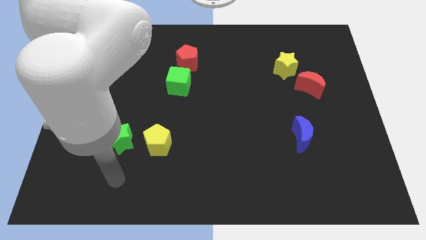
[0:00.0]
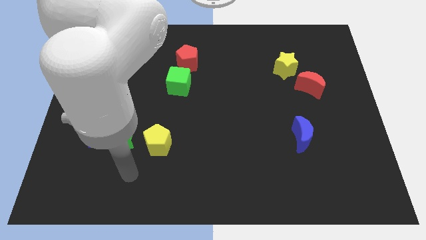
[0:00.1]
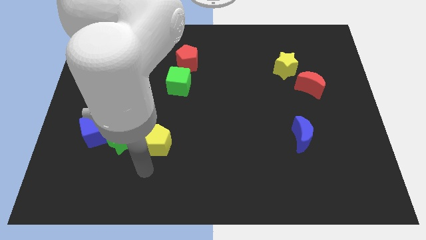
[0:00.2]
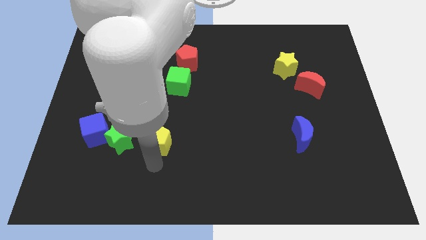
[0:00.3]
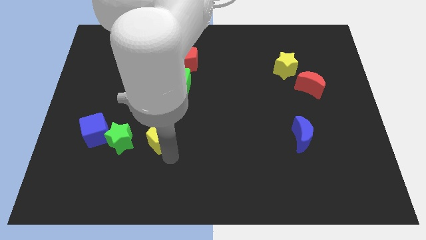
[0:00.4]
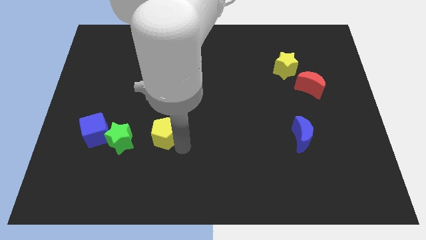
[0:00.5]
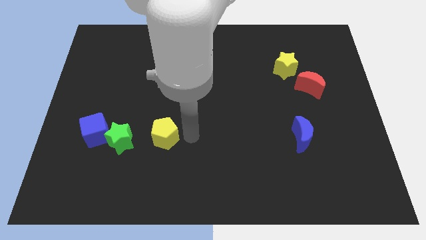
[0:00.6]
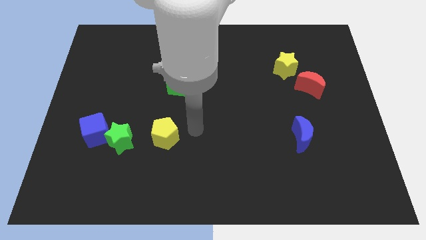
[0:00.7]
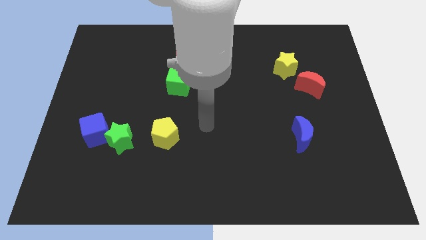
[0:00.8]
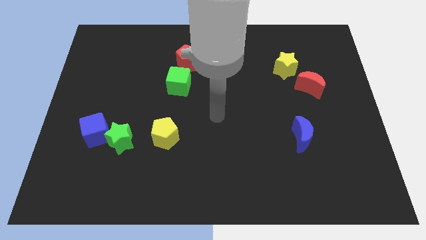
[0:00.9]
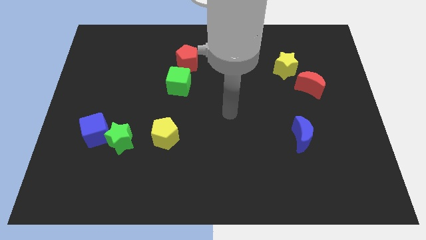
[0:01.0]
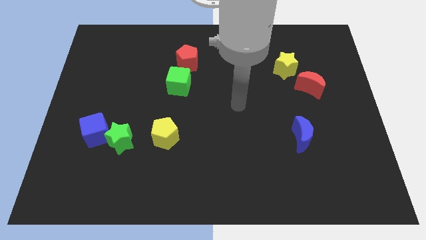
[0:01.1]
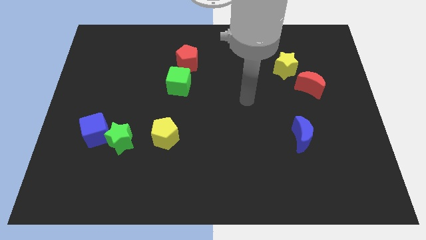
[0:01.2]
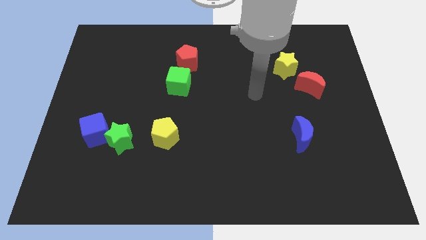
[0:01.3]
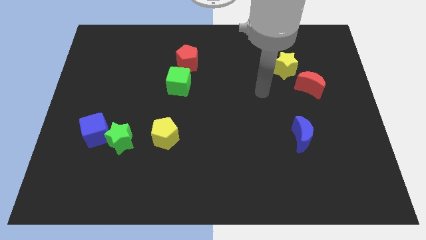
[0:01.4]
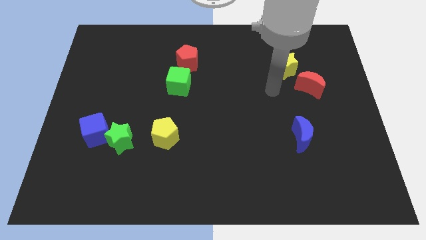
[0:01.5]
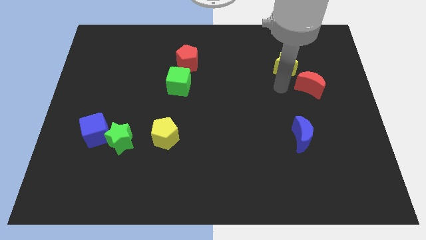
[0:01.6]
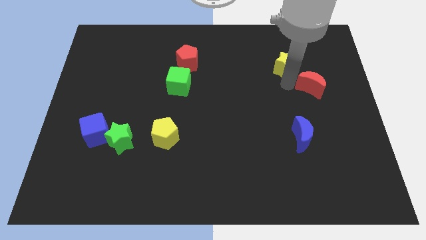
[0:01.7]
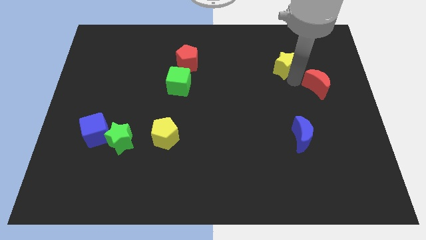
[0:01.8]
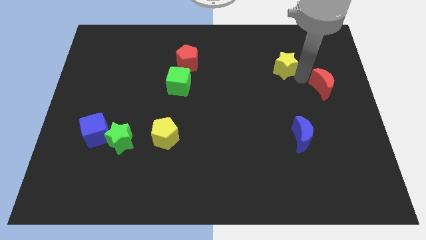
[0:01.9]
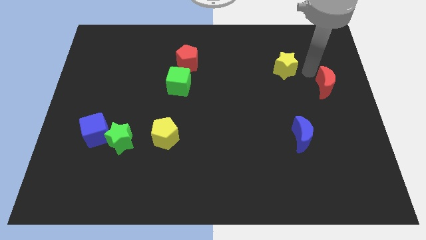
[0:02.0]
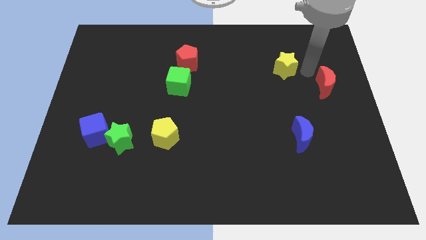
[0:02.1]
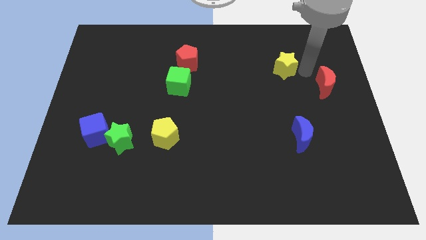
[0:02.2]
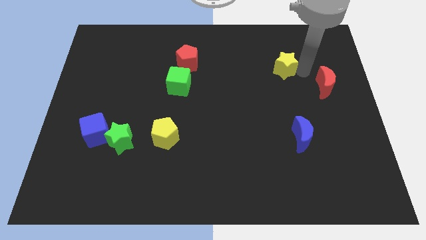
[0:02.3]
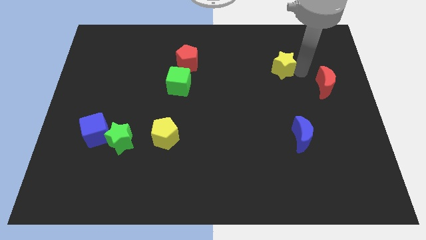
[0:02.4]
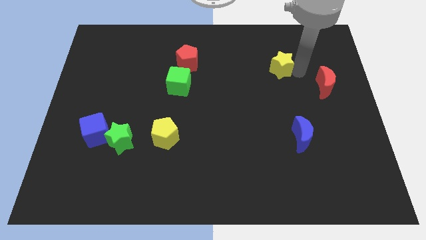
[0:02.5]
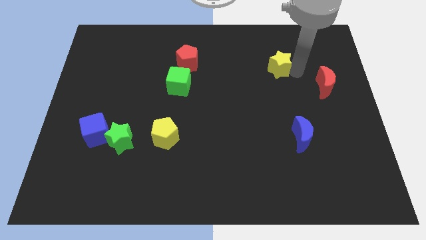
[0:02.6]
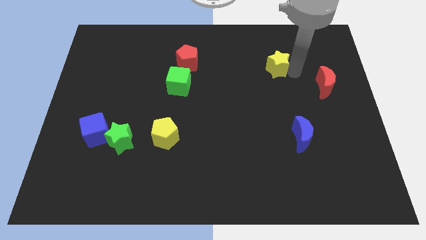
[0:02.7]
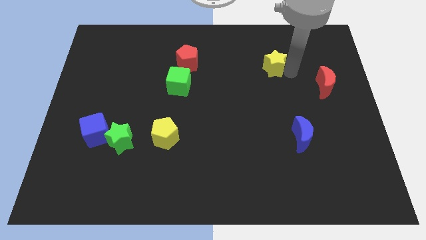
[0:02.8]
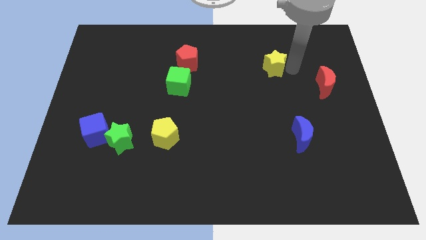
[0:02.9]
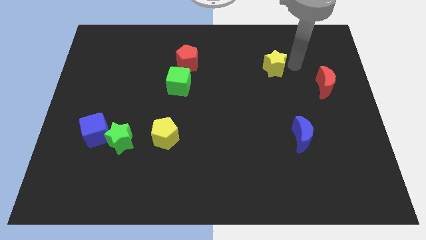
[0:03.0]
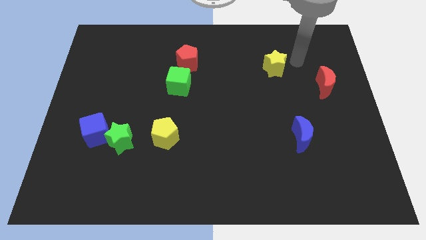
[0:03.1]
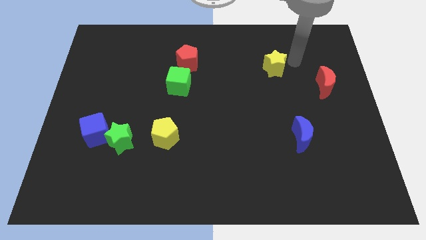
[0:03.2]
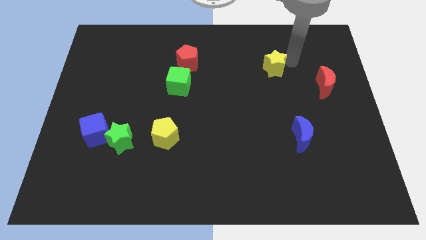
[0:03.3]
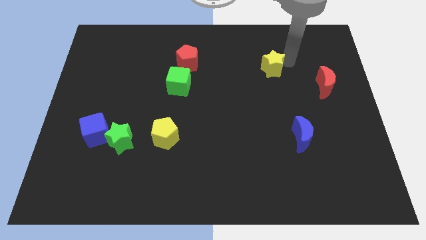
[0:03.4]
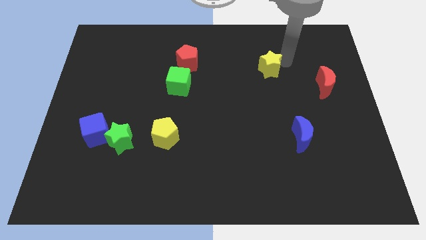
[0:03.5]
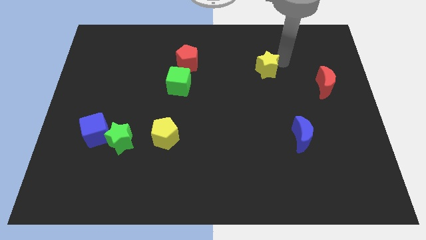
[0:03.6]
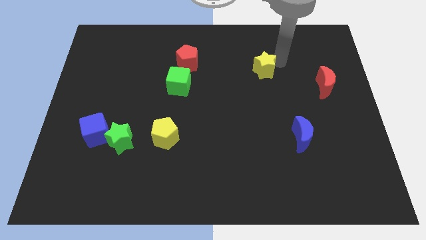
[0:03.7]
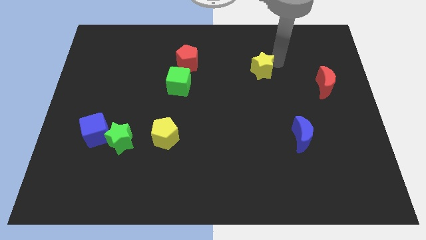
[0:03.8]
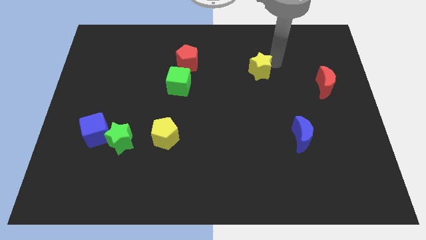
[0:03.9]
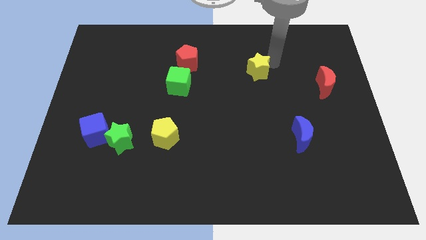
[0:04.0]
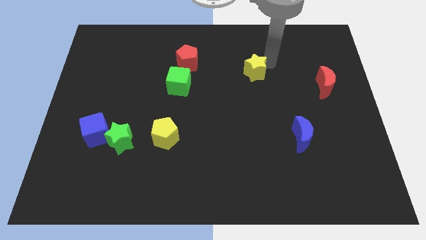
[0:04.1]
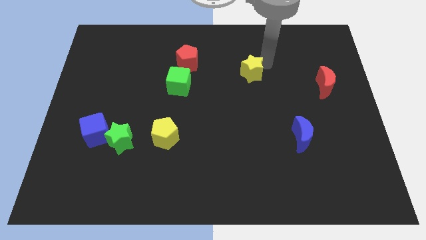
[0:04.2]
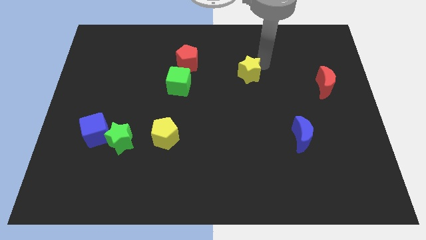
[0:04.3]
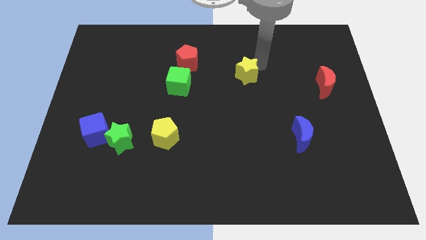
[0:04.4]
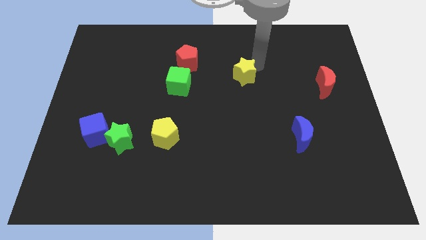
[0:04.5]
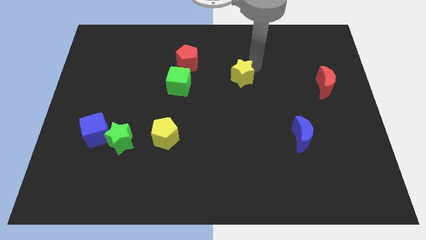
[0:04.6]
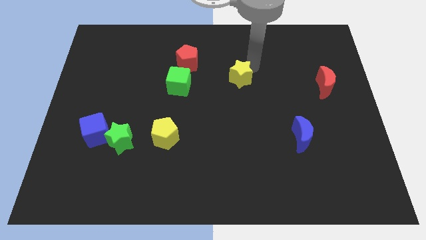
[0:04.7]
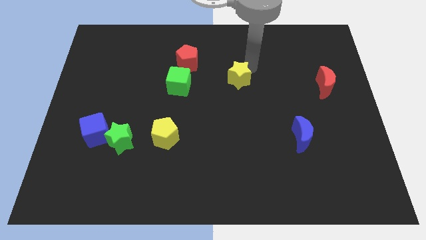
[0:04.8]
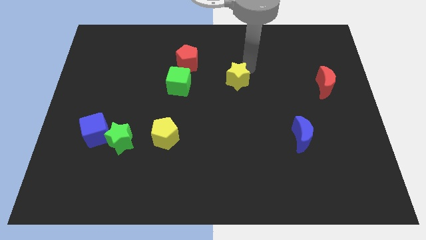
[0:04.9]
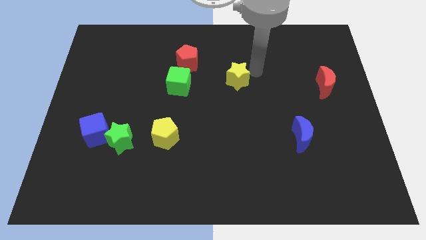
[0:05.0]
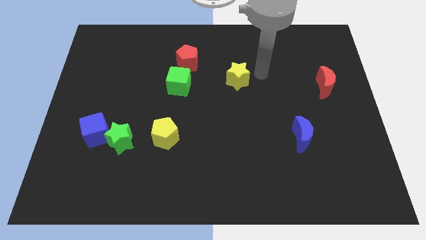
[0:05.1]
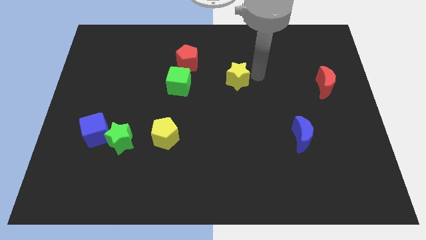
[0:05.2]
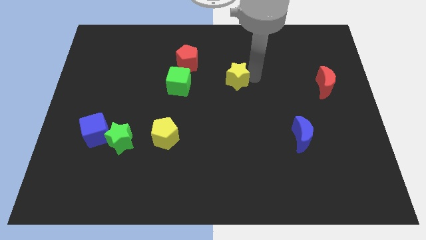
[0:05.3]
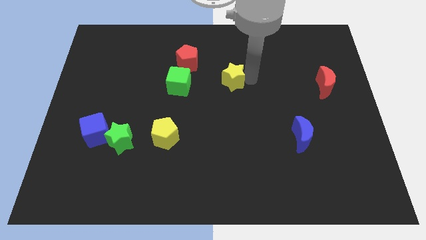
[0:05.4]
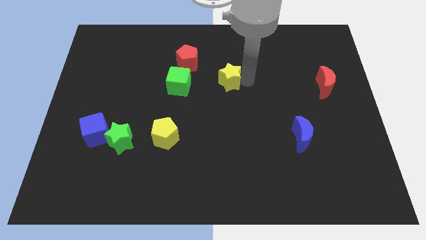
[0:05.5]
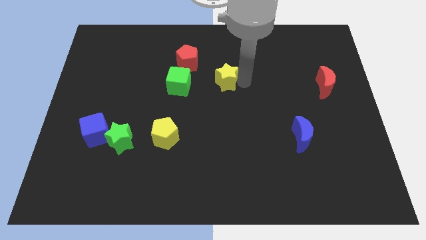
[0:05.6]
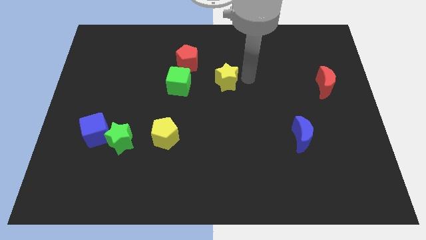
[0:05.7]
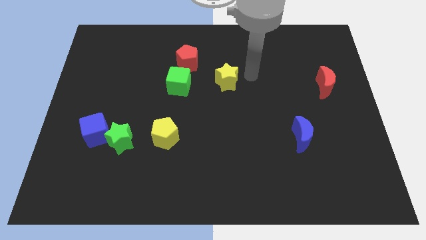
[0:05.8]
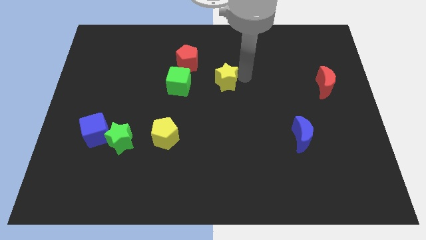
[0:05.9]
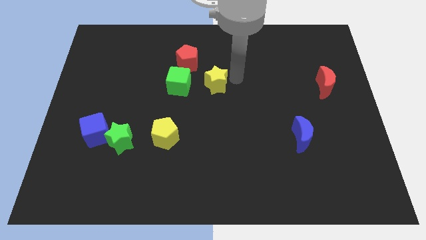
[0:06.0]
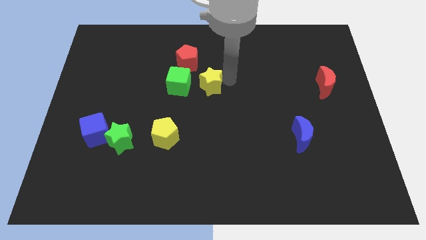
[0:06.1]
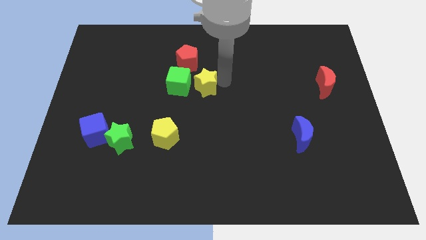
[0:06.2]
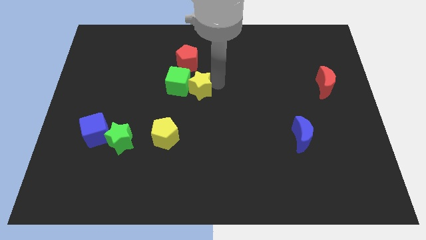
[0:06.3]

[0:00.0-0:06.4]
put the yellow star to the green cube
